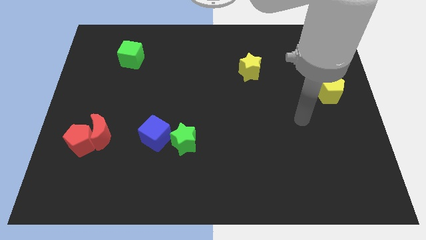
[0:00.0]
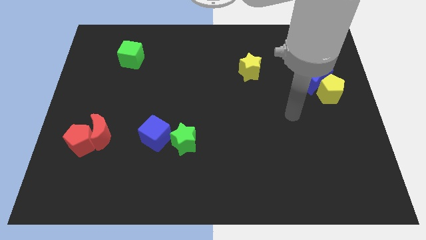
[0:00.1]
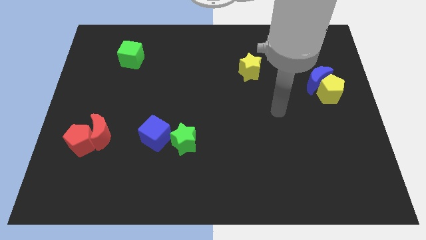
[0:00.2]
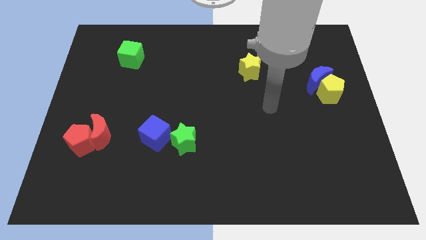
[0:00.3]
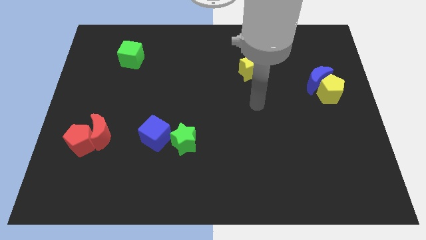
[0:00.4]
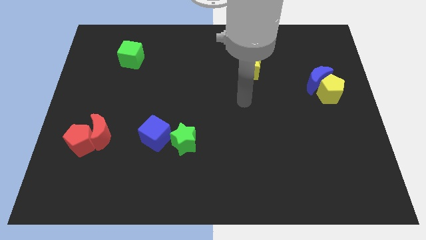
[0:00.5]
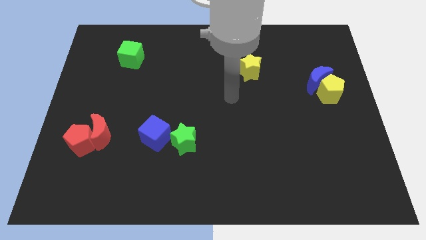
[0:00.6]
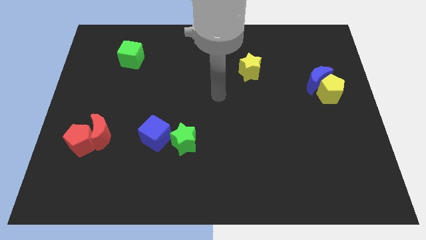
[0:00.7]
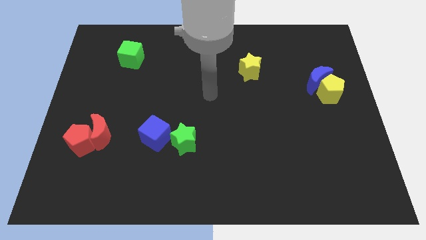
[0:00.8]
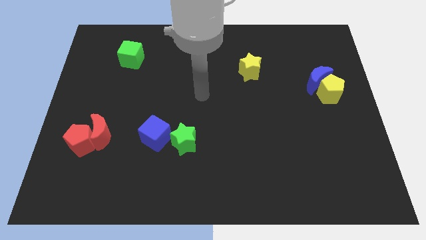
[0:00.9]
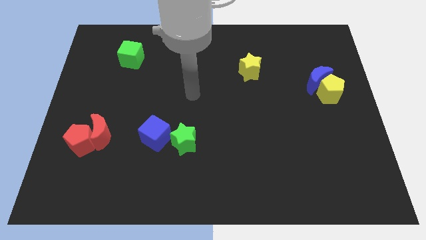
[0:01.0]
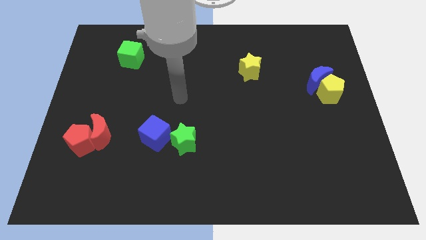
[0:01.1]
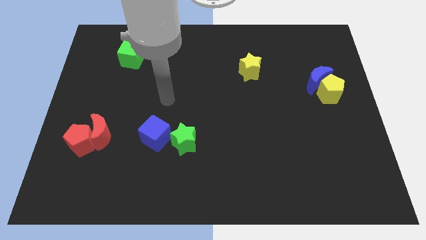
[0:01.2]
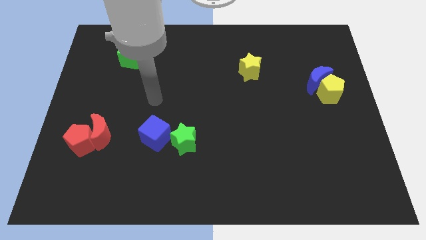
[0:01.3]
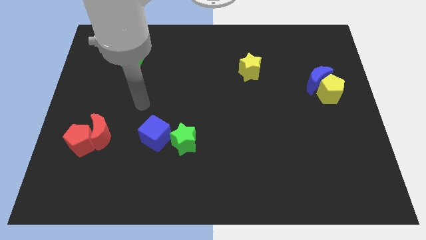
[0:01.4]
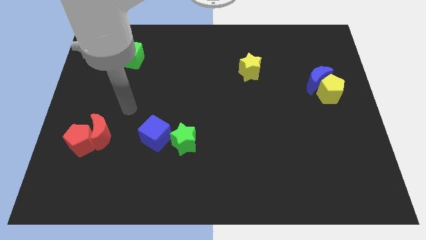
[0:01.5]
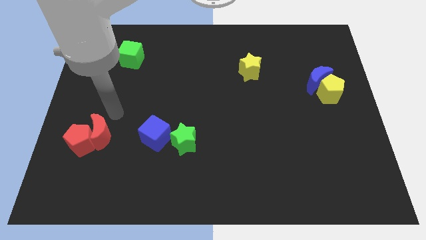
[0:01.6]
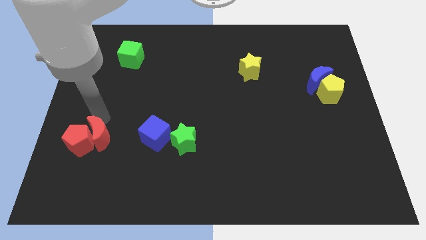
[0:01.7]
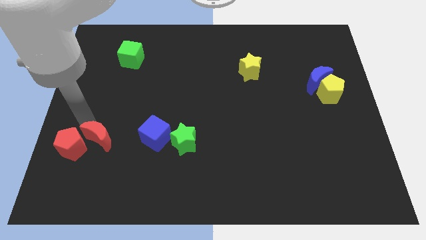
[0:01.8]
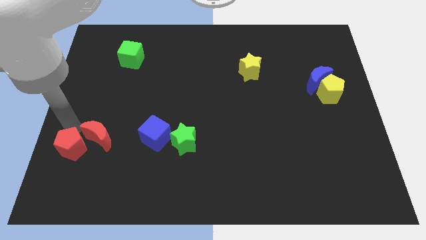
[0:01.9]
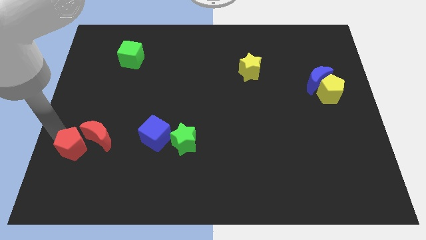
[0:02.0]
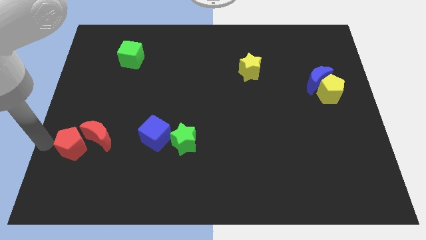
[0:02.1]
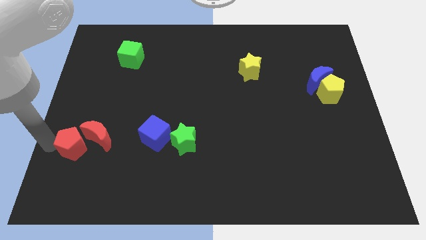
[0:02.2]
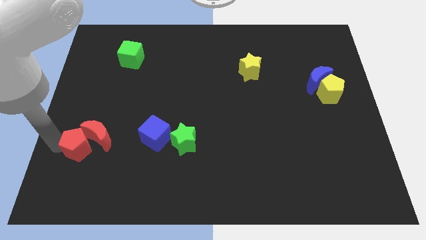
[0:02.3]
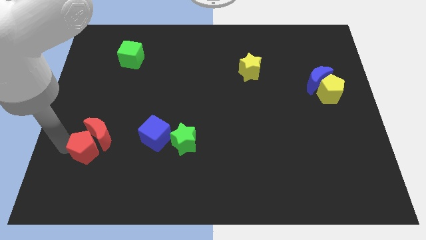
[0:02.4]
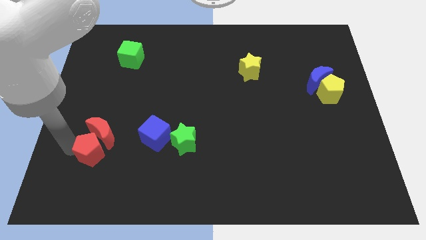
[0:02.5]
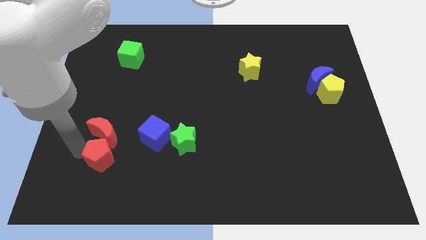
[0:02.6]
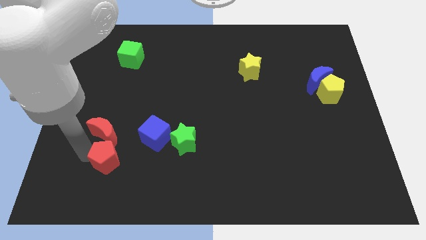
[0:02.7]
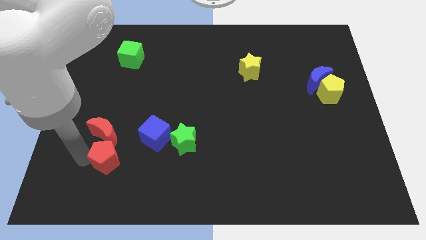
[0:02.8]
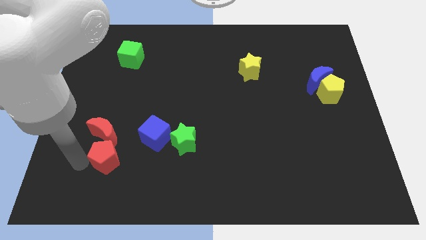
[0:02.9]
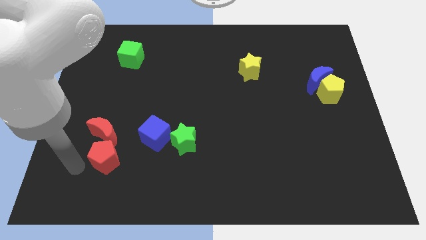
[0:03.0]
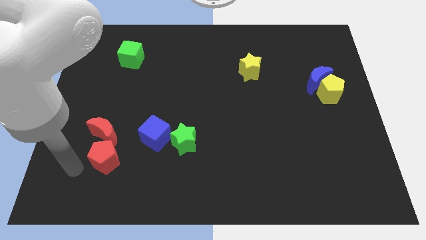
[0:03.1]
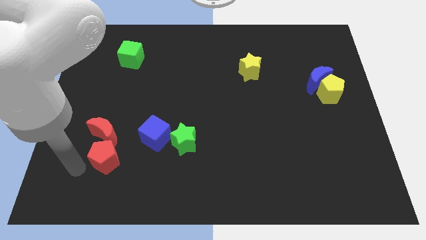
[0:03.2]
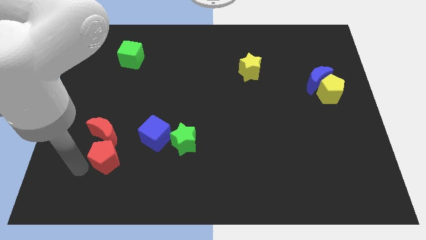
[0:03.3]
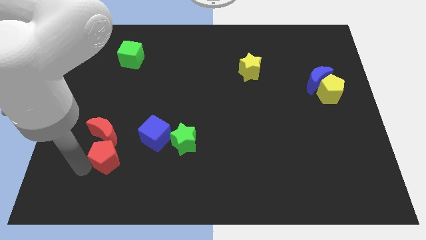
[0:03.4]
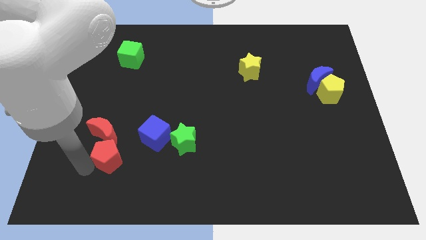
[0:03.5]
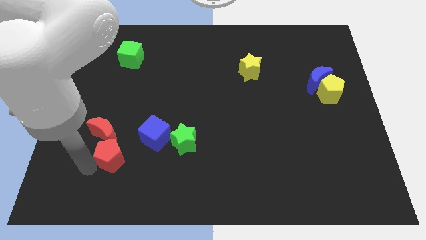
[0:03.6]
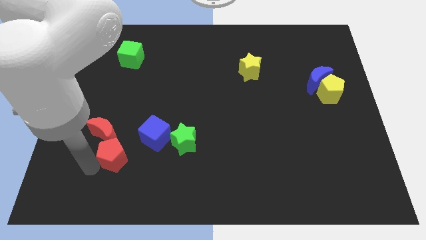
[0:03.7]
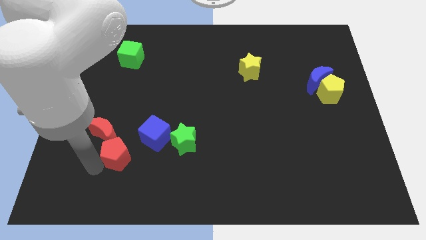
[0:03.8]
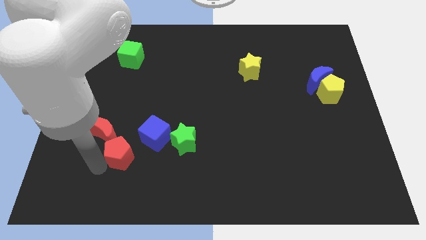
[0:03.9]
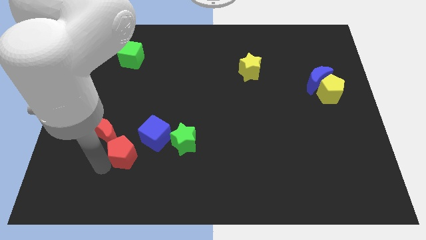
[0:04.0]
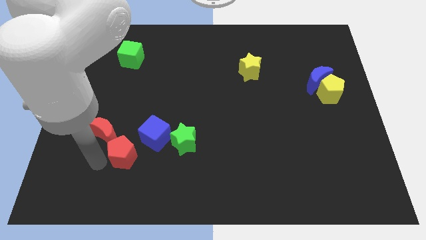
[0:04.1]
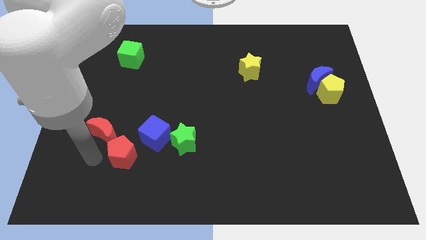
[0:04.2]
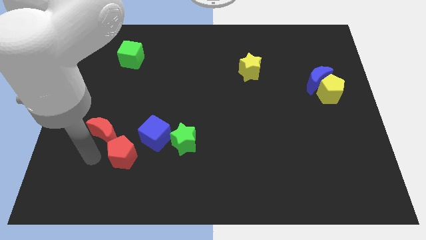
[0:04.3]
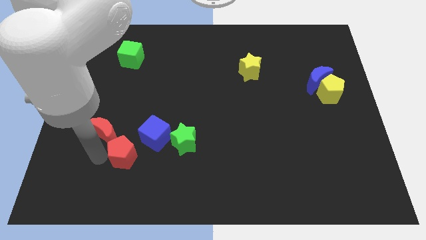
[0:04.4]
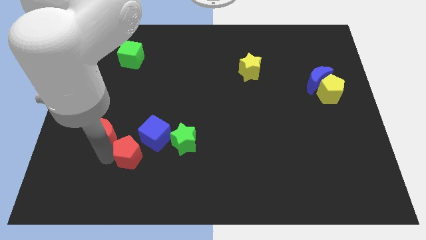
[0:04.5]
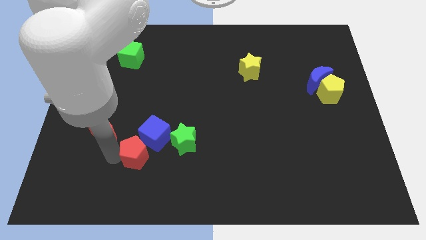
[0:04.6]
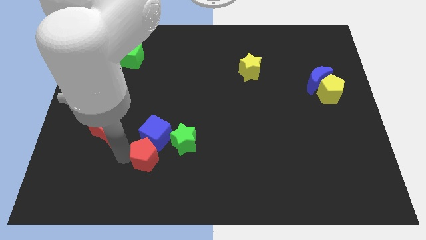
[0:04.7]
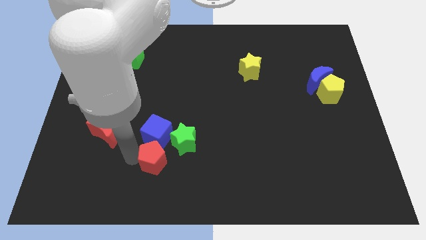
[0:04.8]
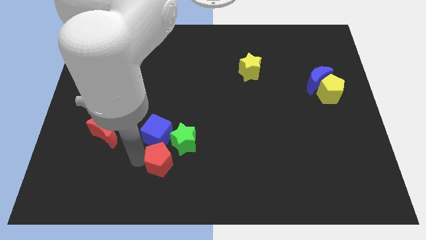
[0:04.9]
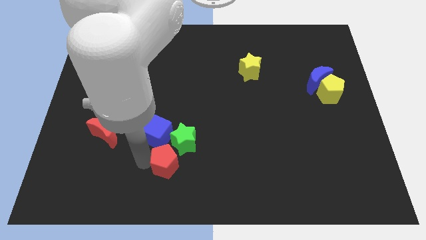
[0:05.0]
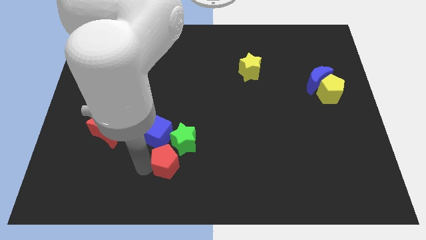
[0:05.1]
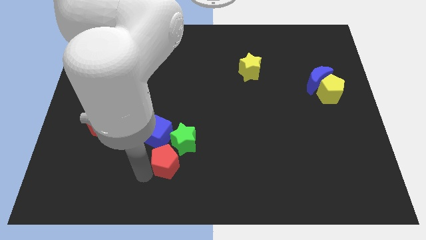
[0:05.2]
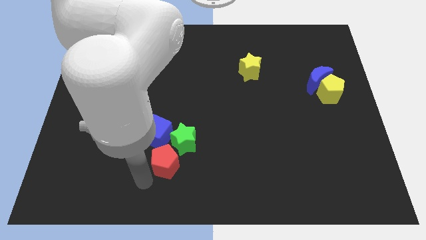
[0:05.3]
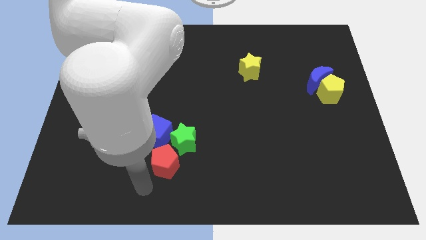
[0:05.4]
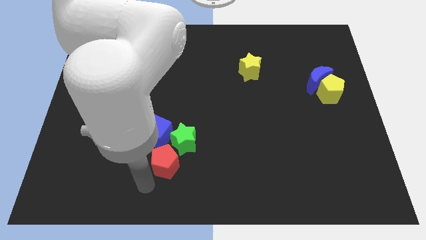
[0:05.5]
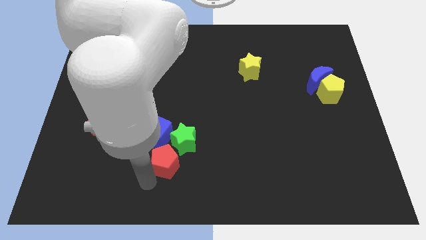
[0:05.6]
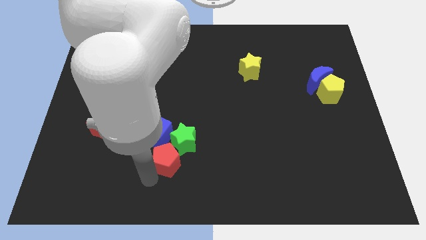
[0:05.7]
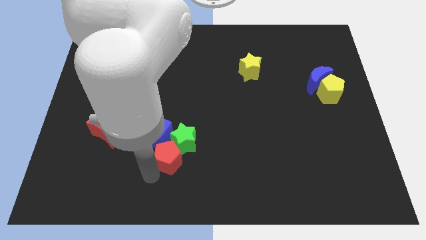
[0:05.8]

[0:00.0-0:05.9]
put the red pentagon next to the green star

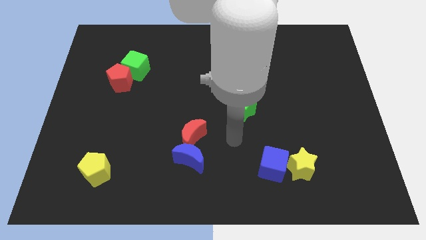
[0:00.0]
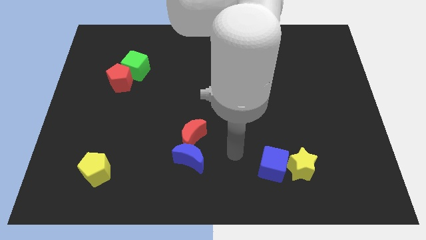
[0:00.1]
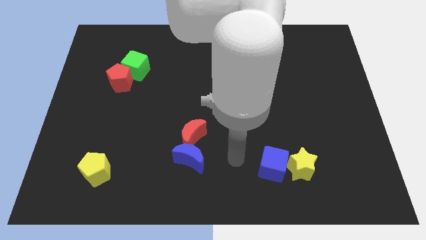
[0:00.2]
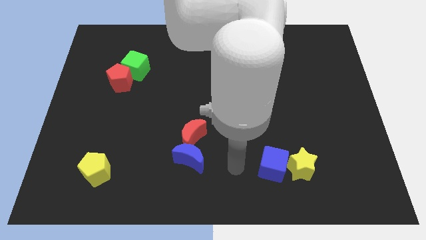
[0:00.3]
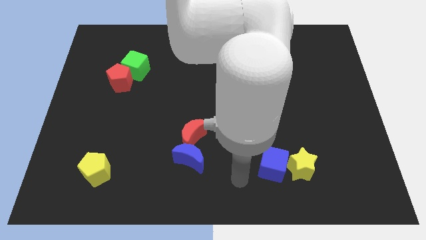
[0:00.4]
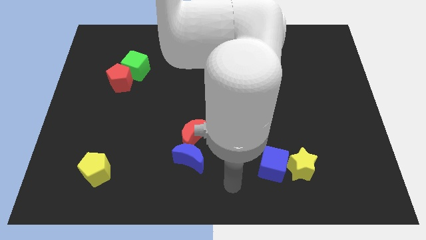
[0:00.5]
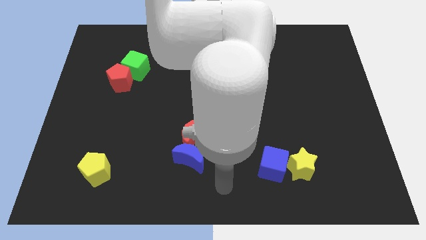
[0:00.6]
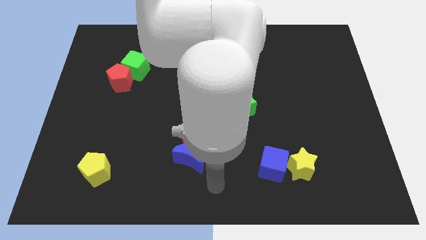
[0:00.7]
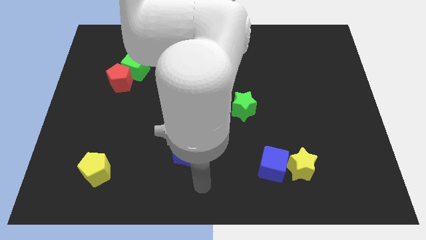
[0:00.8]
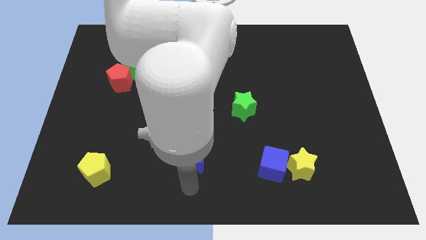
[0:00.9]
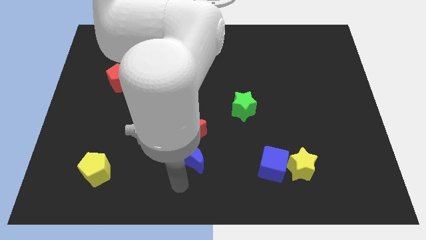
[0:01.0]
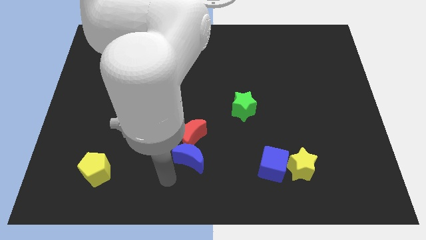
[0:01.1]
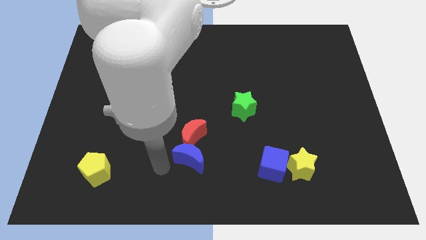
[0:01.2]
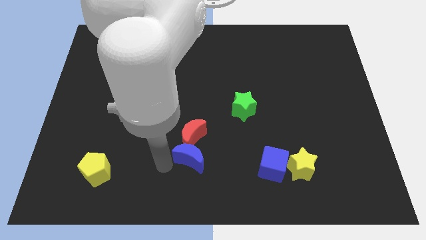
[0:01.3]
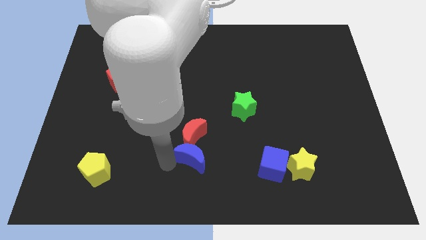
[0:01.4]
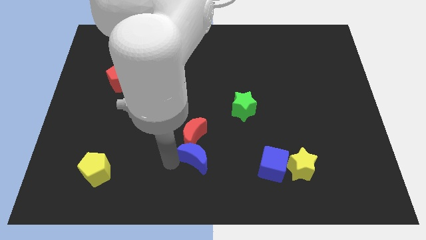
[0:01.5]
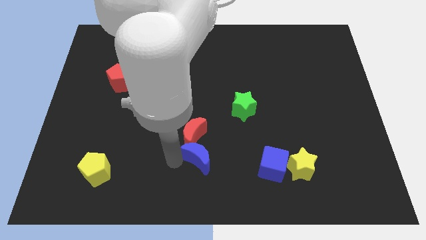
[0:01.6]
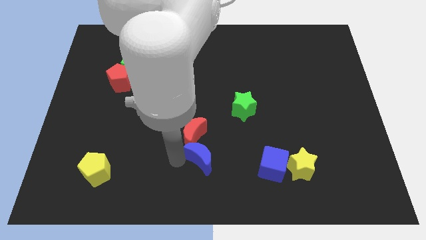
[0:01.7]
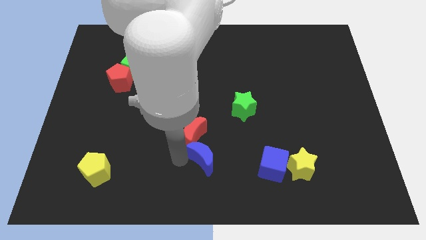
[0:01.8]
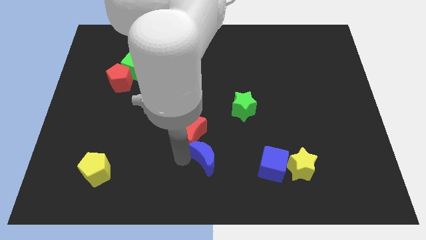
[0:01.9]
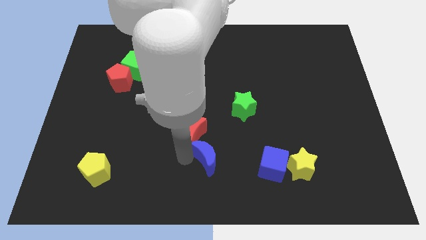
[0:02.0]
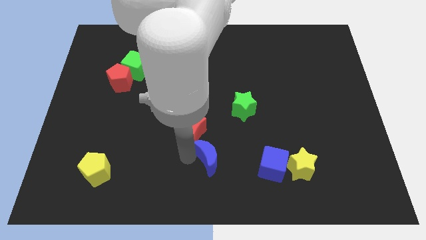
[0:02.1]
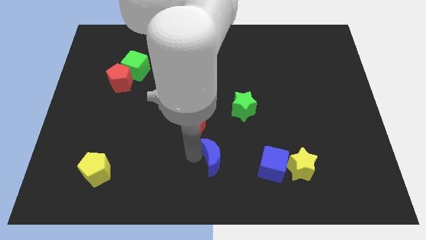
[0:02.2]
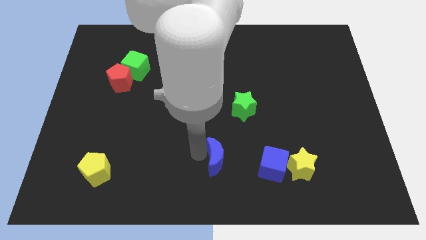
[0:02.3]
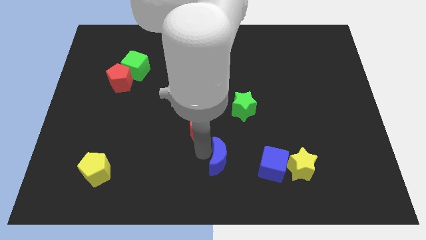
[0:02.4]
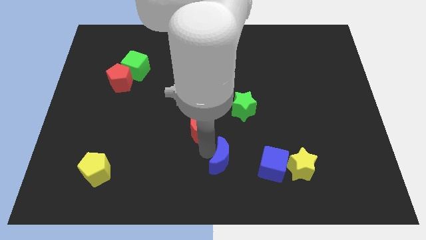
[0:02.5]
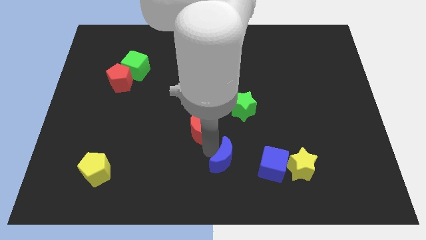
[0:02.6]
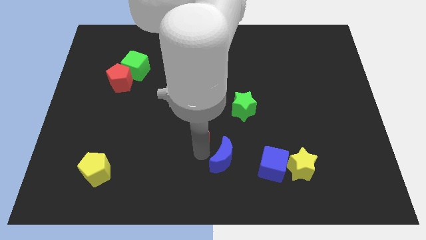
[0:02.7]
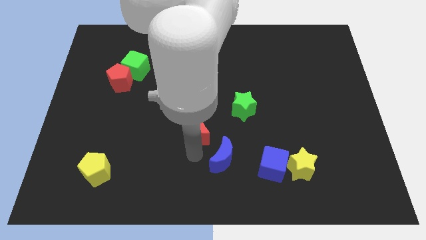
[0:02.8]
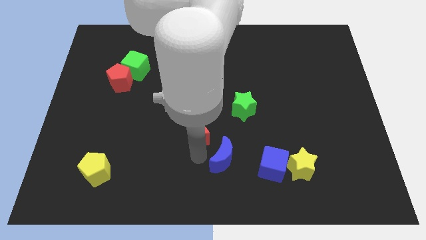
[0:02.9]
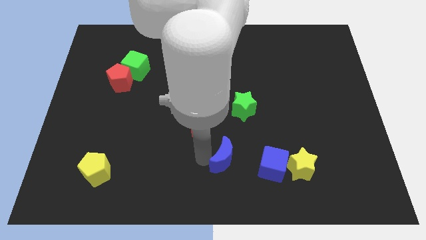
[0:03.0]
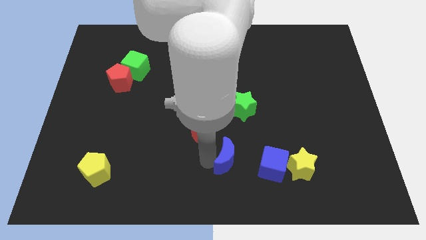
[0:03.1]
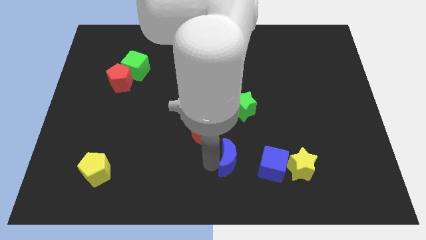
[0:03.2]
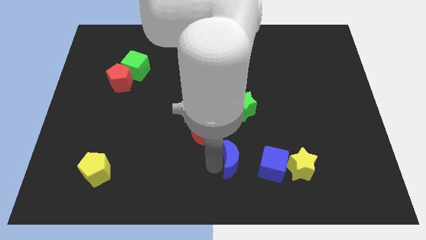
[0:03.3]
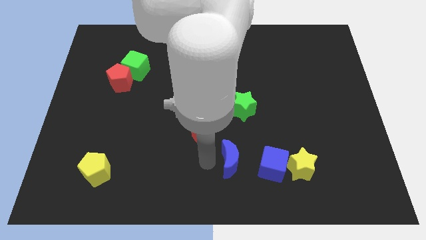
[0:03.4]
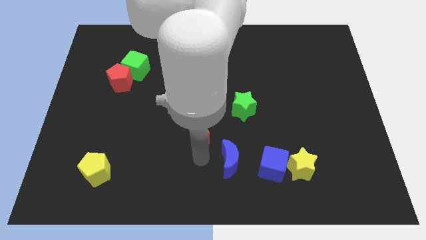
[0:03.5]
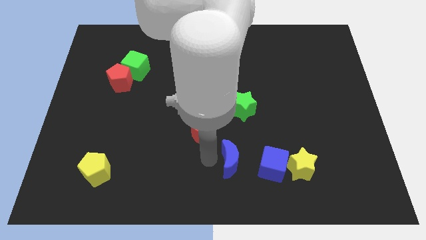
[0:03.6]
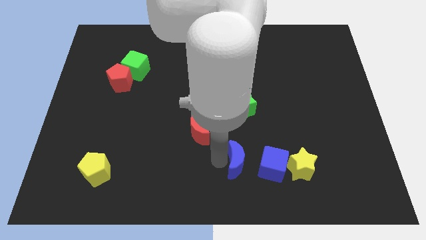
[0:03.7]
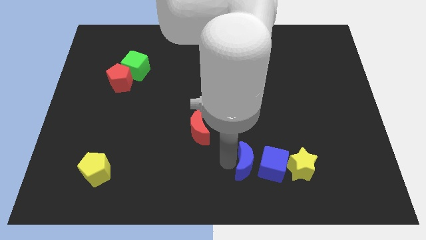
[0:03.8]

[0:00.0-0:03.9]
push the blue moon close to the blue cube
